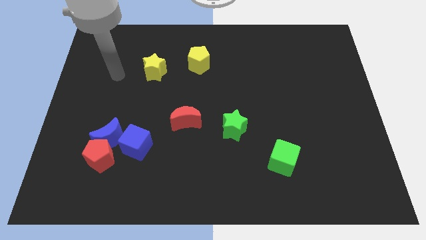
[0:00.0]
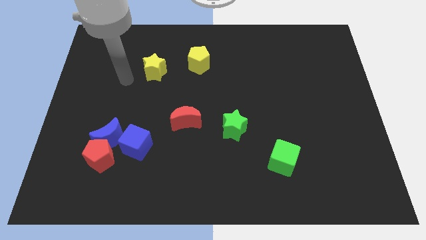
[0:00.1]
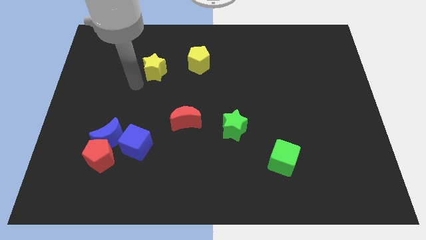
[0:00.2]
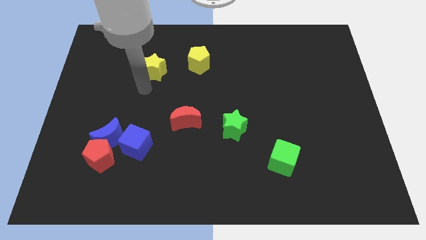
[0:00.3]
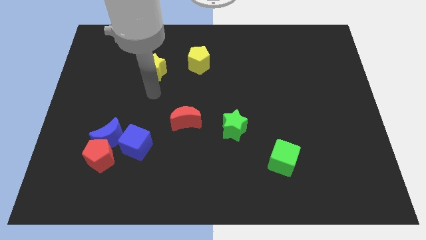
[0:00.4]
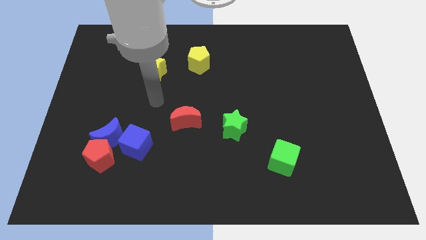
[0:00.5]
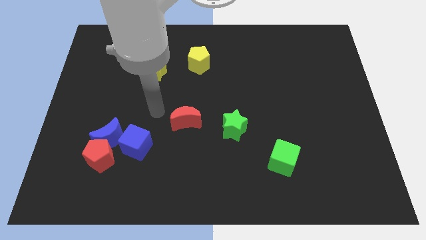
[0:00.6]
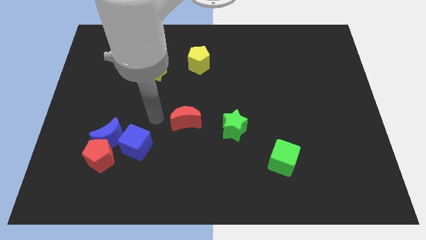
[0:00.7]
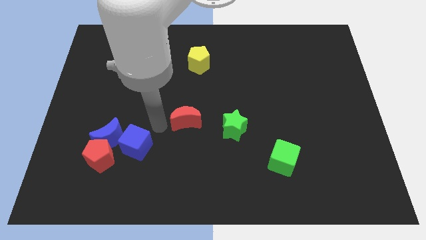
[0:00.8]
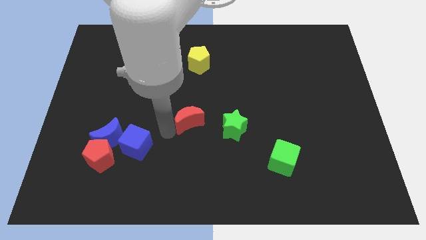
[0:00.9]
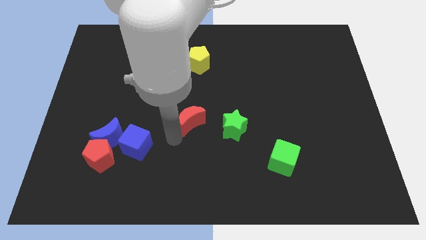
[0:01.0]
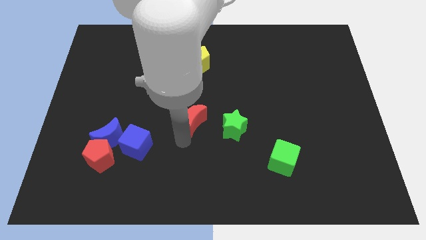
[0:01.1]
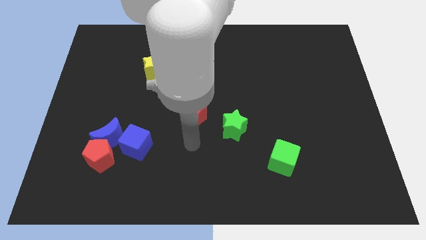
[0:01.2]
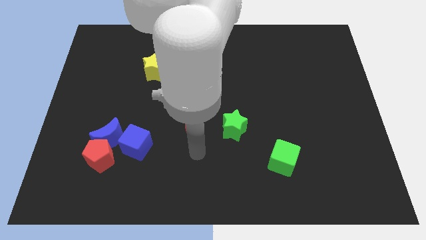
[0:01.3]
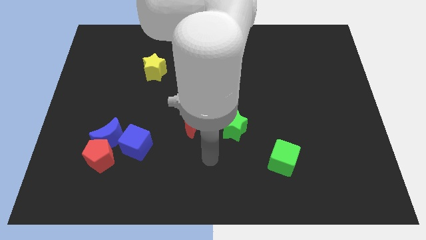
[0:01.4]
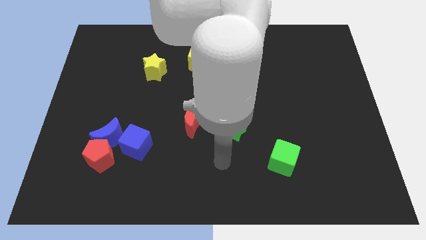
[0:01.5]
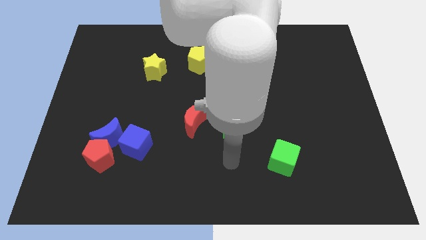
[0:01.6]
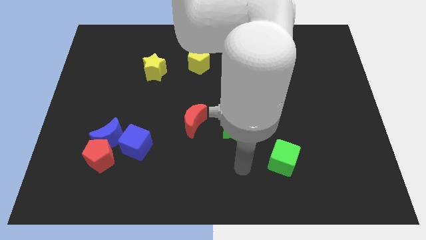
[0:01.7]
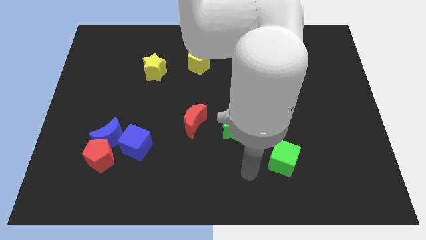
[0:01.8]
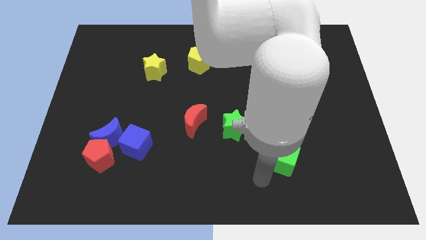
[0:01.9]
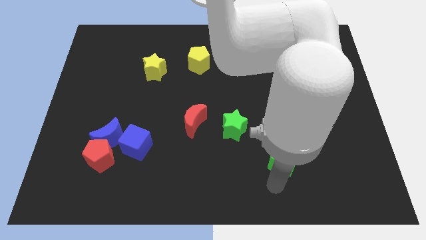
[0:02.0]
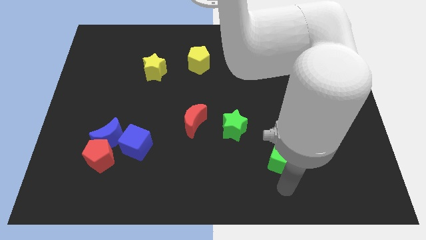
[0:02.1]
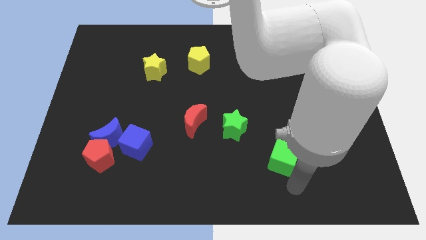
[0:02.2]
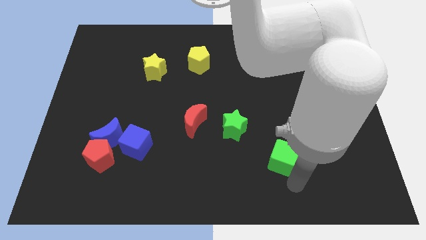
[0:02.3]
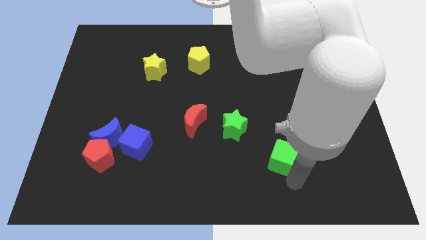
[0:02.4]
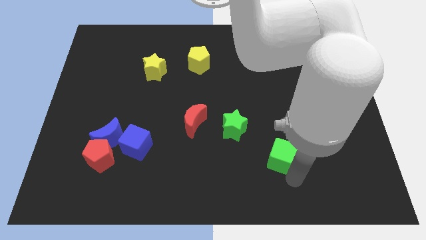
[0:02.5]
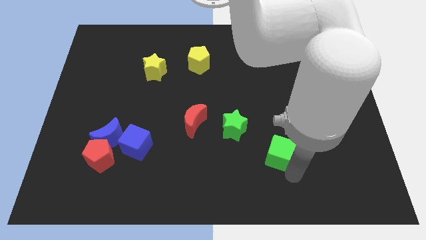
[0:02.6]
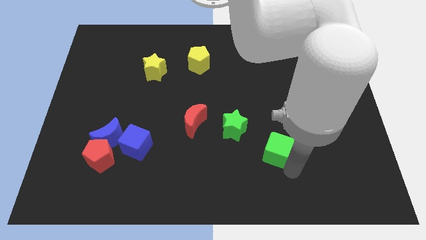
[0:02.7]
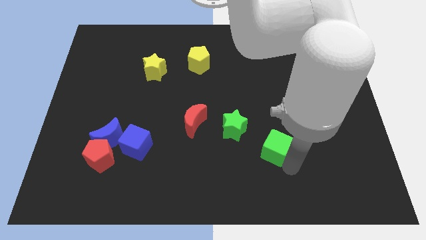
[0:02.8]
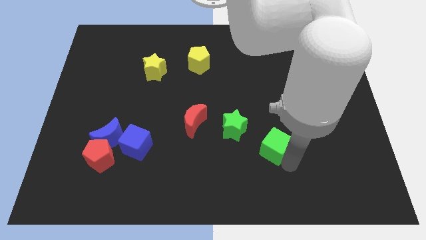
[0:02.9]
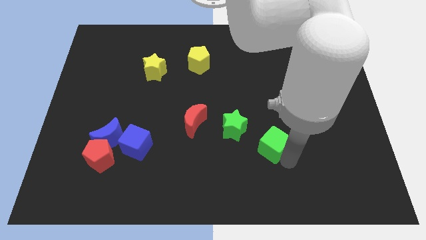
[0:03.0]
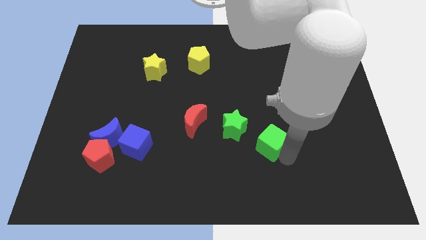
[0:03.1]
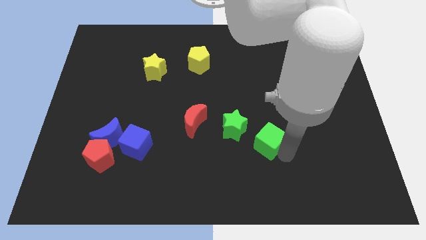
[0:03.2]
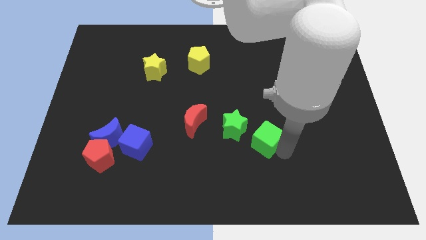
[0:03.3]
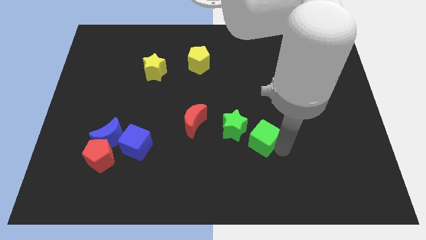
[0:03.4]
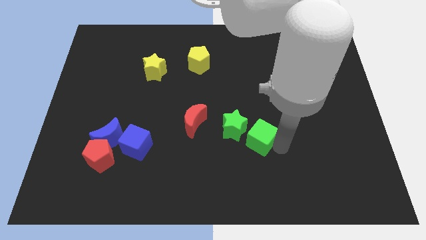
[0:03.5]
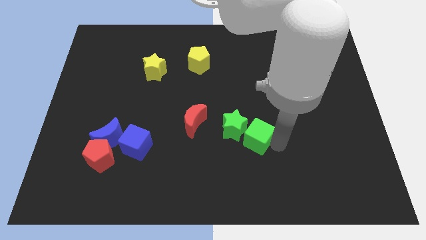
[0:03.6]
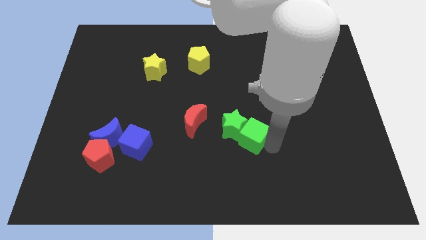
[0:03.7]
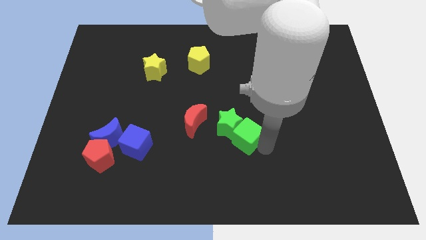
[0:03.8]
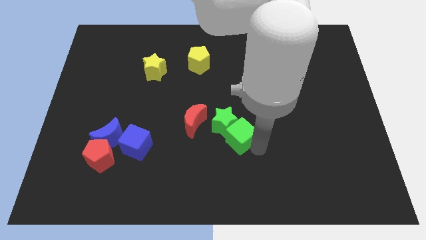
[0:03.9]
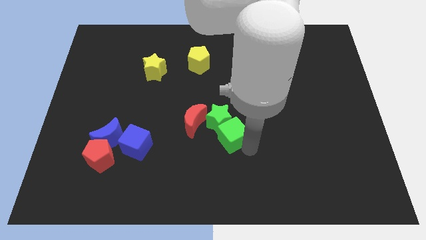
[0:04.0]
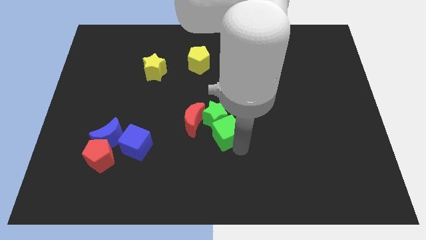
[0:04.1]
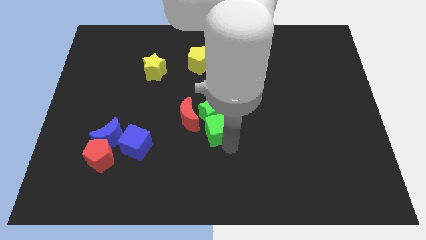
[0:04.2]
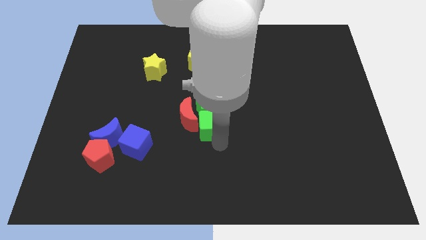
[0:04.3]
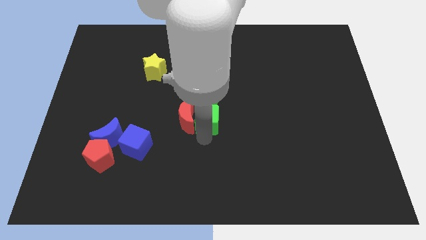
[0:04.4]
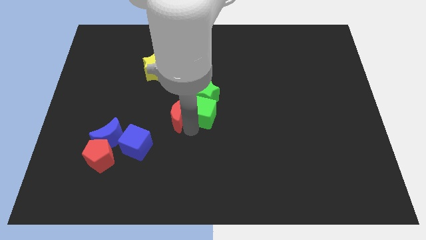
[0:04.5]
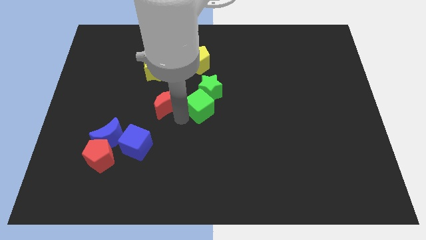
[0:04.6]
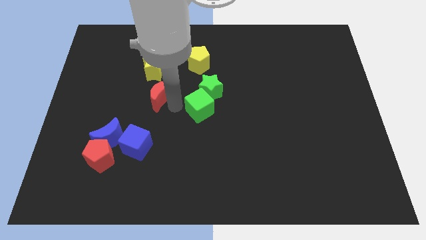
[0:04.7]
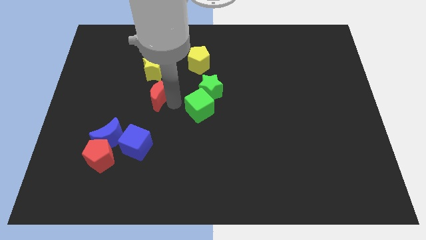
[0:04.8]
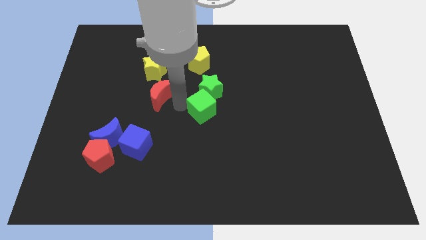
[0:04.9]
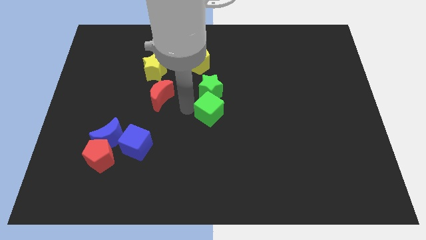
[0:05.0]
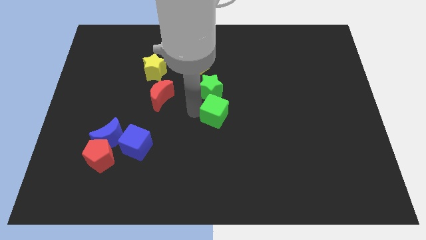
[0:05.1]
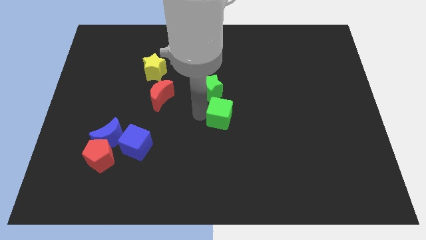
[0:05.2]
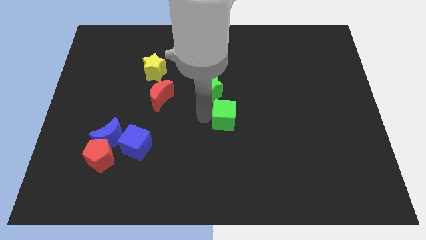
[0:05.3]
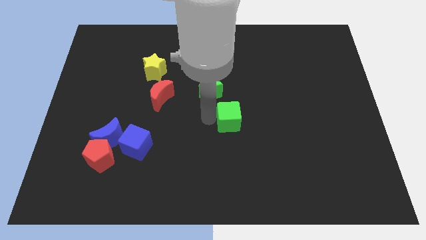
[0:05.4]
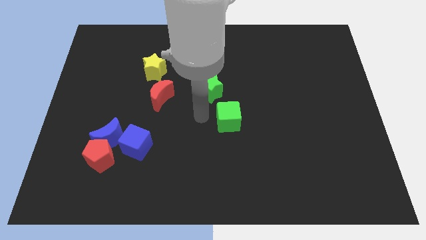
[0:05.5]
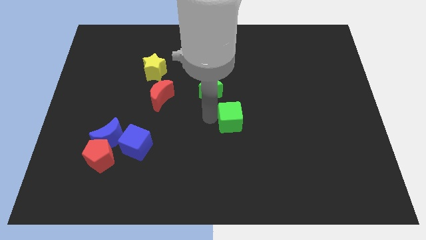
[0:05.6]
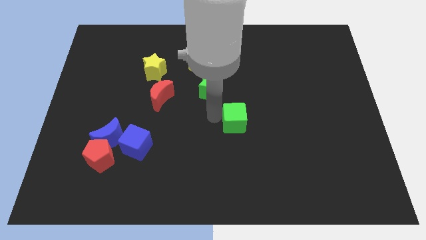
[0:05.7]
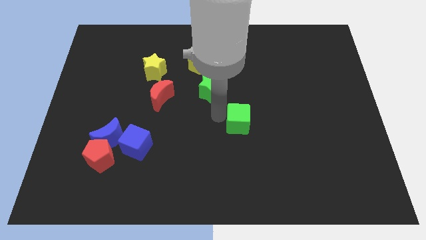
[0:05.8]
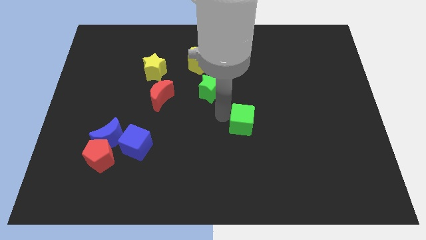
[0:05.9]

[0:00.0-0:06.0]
move the green cube slightly up

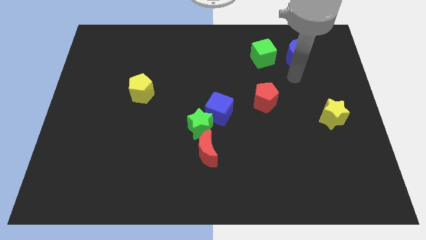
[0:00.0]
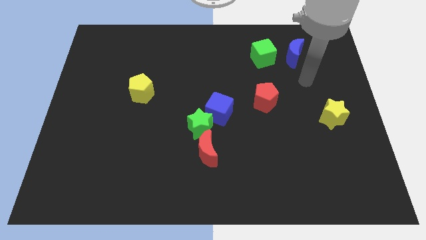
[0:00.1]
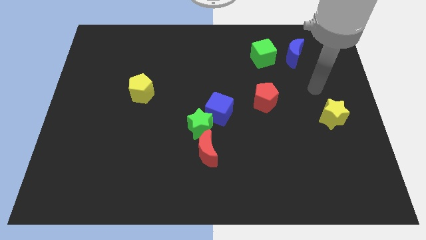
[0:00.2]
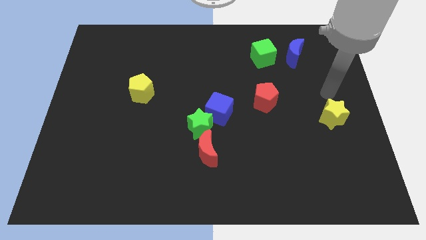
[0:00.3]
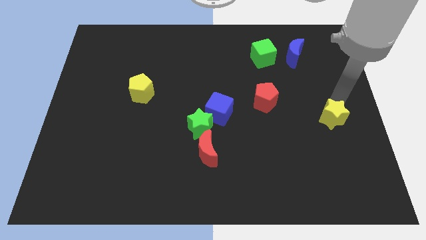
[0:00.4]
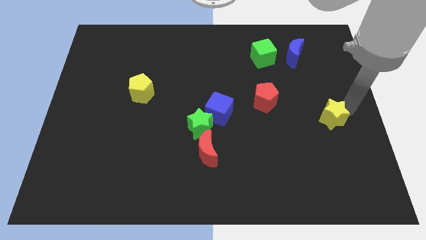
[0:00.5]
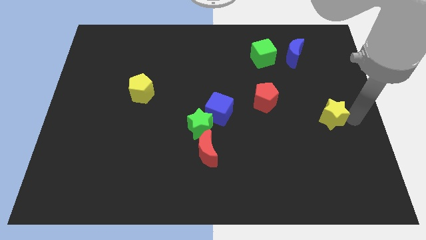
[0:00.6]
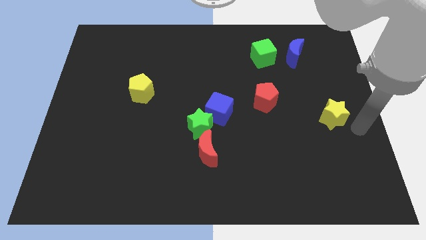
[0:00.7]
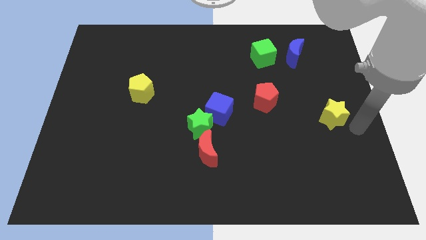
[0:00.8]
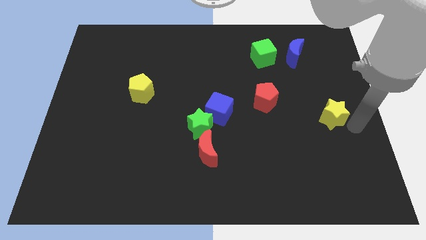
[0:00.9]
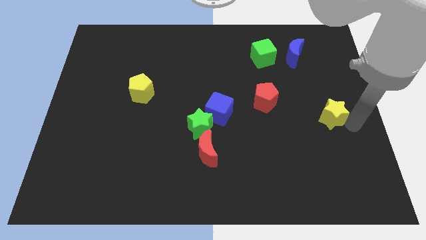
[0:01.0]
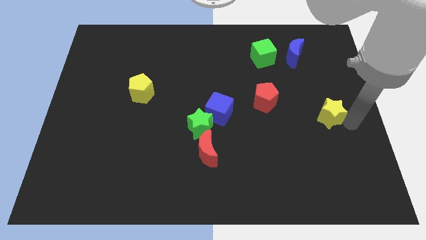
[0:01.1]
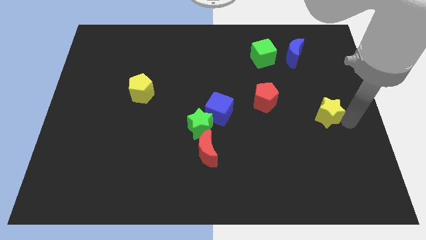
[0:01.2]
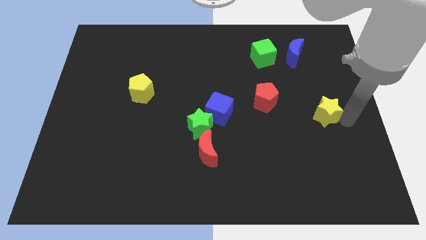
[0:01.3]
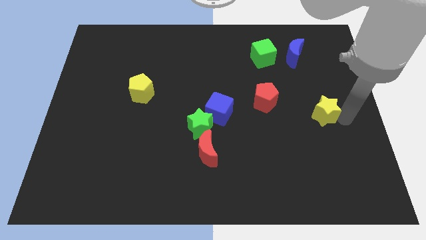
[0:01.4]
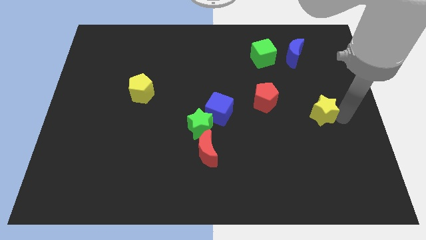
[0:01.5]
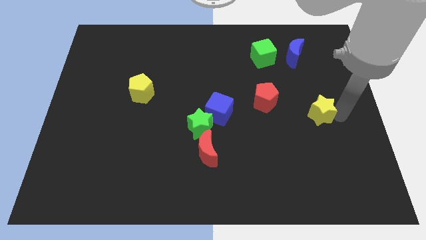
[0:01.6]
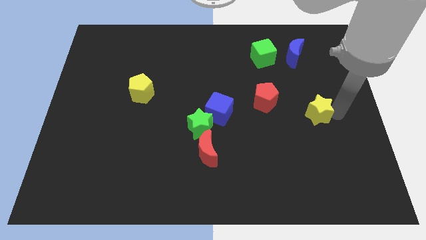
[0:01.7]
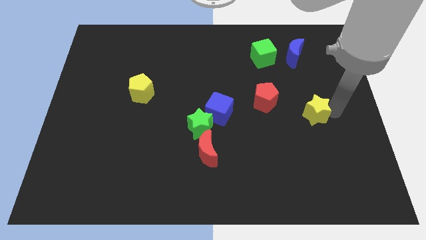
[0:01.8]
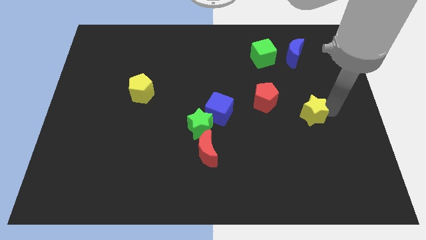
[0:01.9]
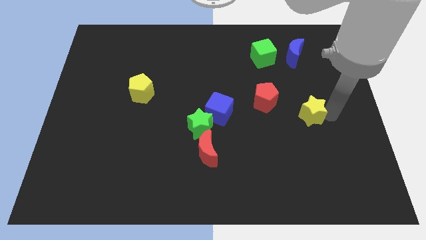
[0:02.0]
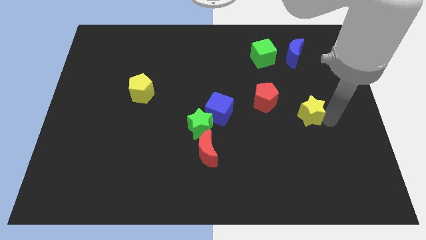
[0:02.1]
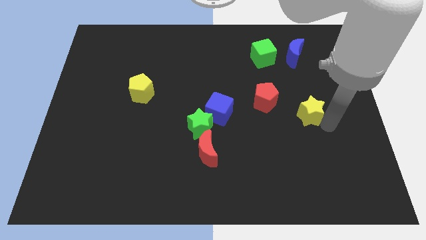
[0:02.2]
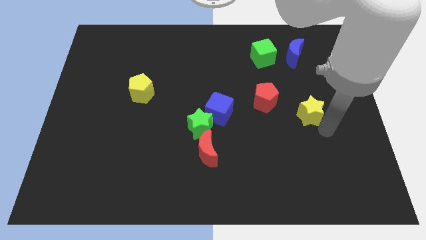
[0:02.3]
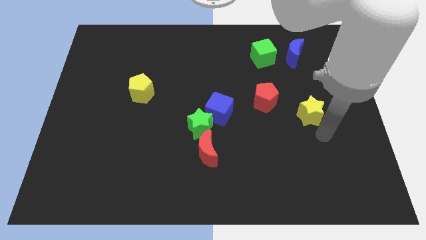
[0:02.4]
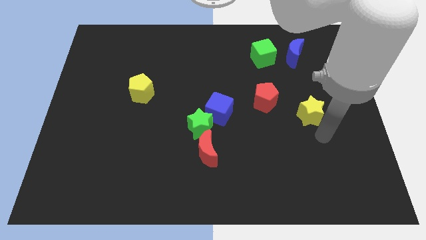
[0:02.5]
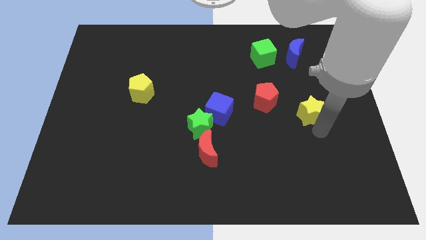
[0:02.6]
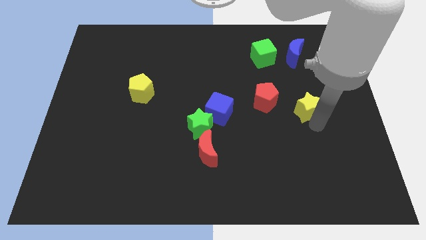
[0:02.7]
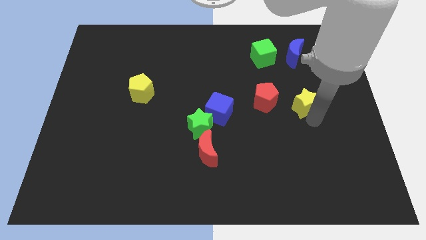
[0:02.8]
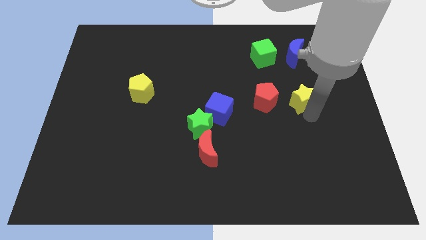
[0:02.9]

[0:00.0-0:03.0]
slightly move the yellow star diagonally upwards and to the left
